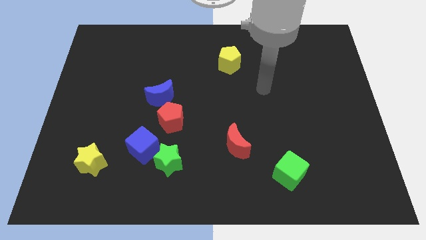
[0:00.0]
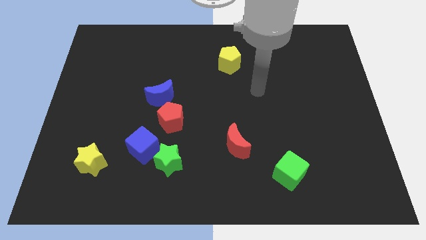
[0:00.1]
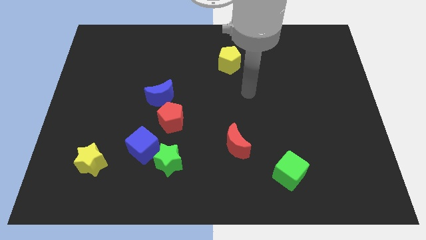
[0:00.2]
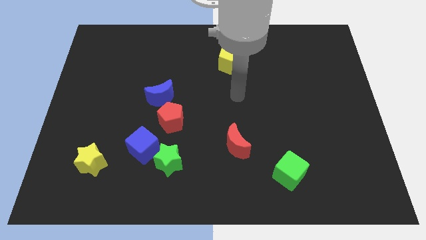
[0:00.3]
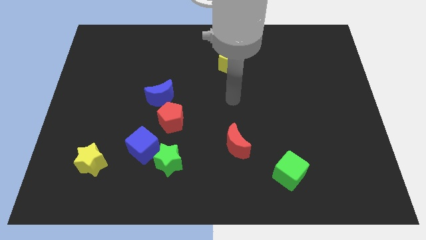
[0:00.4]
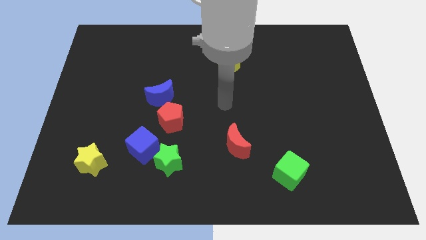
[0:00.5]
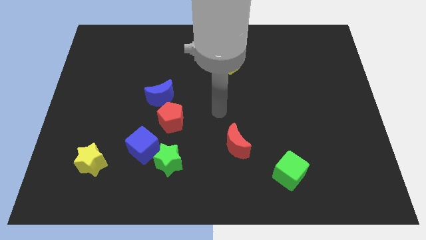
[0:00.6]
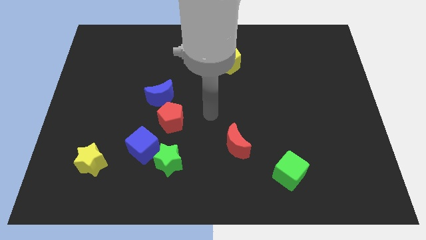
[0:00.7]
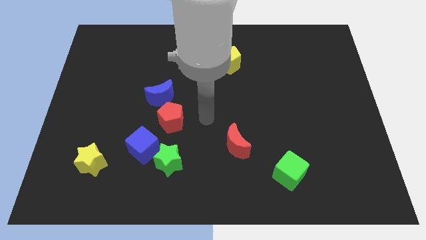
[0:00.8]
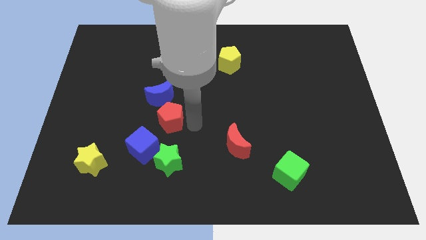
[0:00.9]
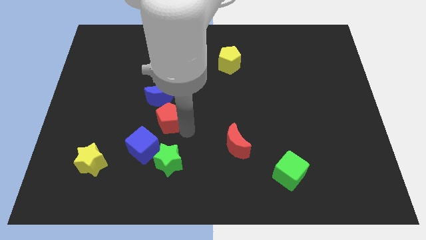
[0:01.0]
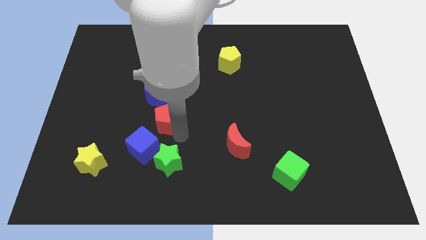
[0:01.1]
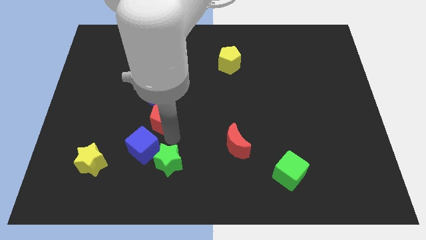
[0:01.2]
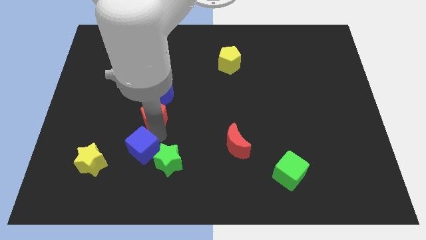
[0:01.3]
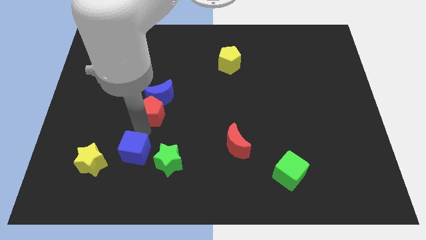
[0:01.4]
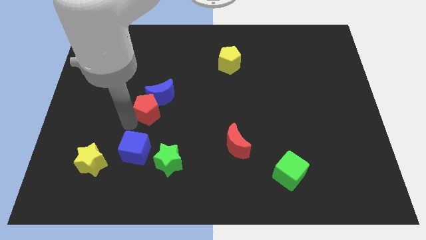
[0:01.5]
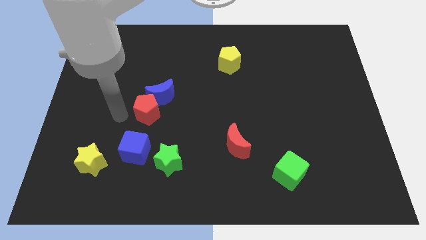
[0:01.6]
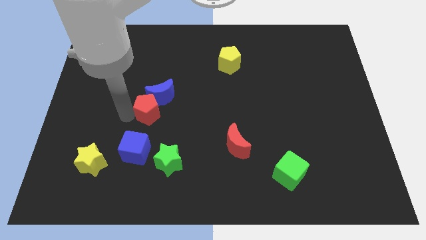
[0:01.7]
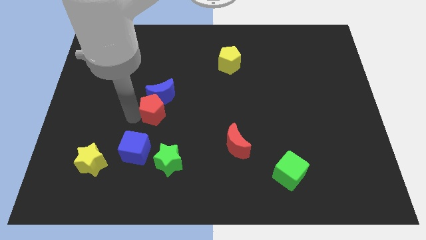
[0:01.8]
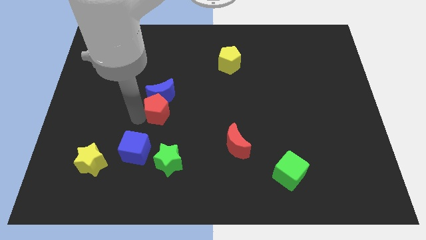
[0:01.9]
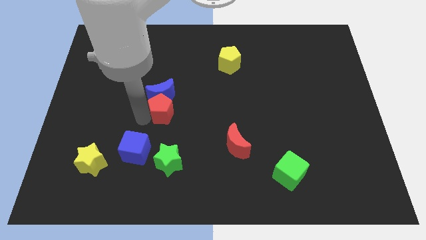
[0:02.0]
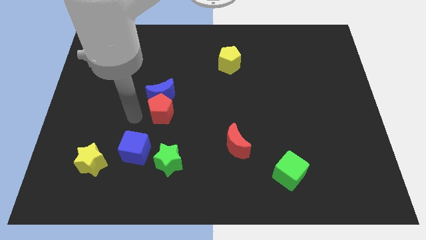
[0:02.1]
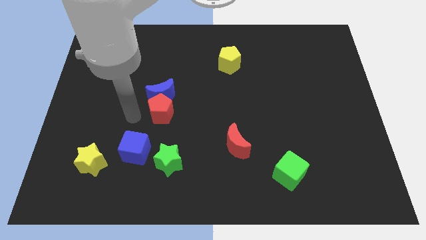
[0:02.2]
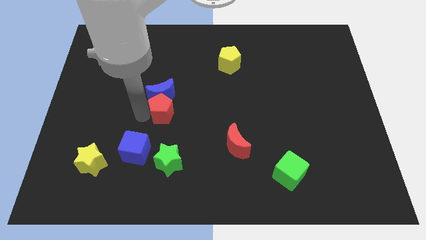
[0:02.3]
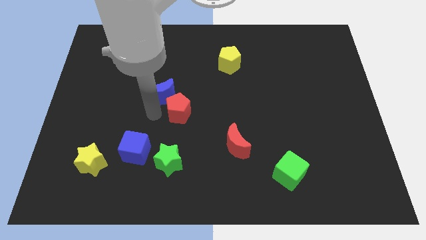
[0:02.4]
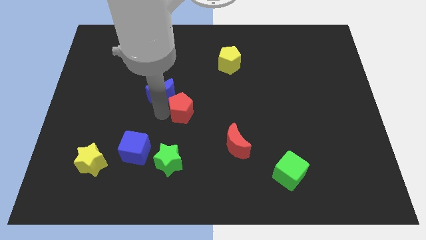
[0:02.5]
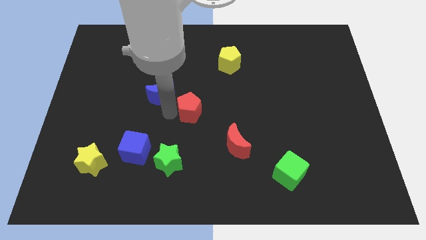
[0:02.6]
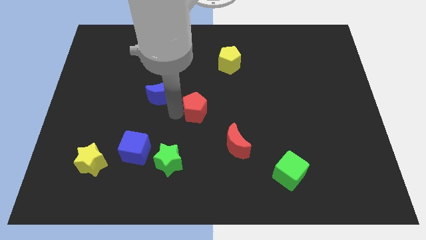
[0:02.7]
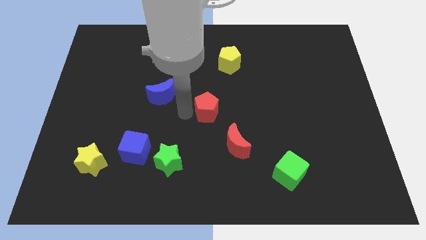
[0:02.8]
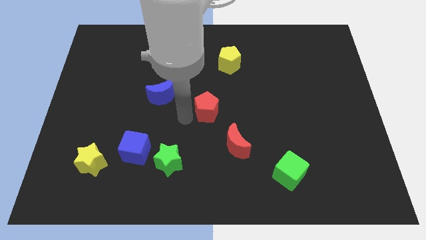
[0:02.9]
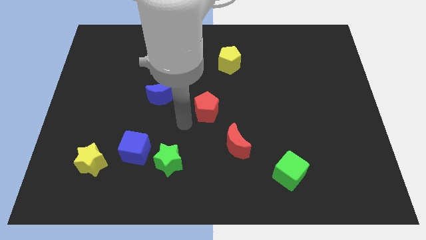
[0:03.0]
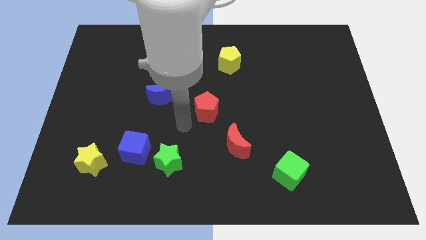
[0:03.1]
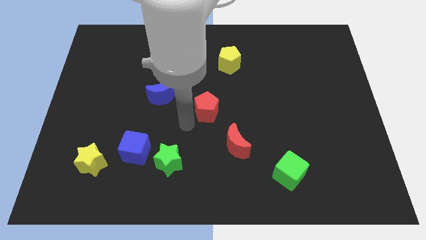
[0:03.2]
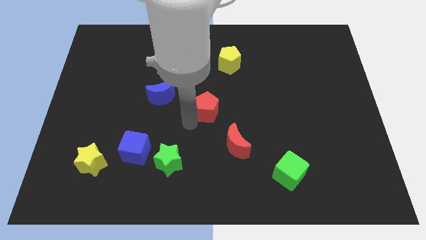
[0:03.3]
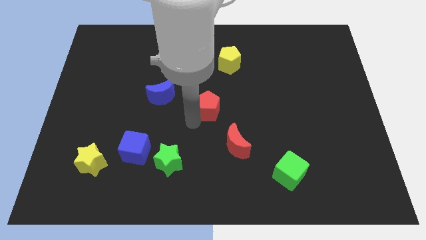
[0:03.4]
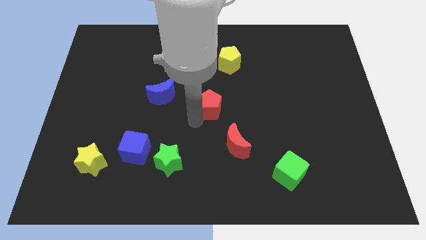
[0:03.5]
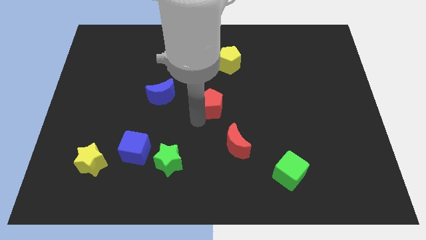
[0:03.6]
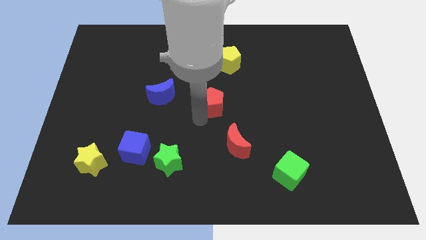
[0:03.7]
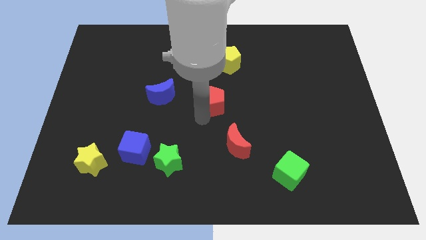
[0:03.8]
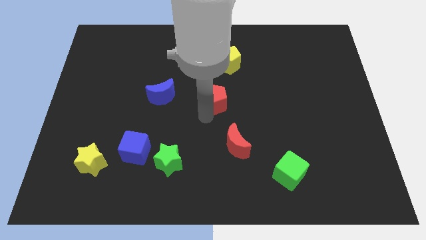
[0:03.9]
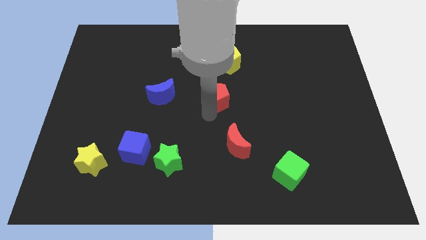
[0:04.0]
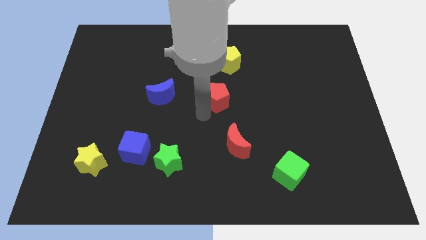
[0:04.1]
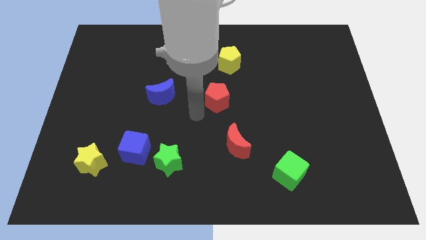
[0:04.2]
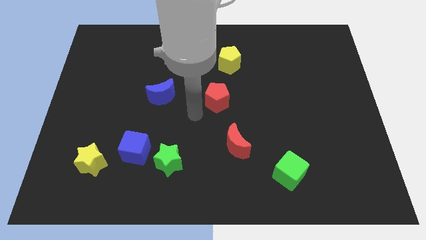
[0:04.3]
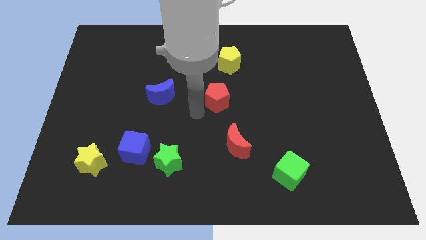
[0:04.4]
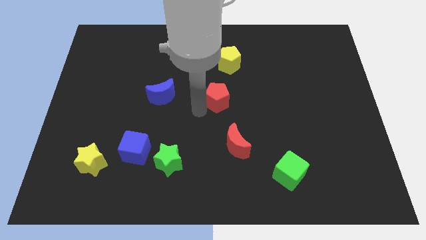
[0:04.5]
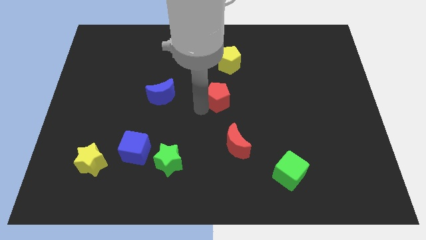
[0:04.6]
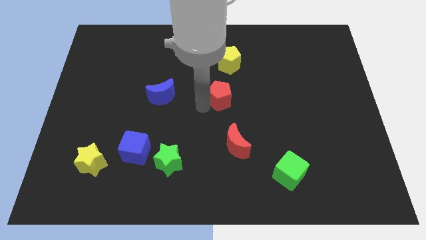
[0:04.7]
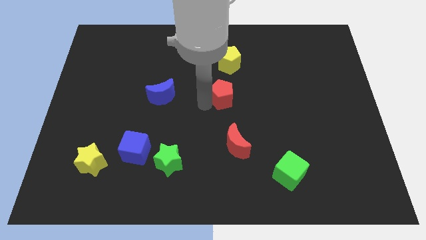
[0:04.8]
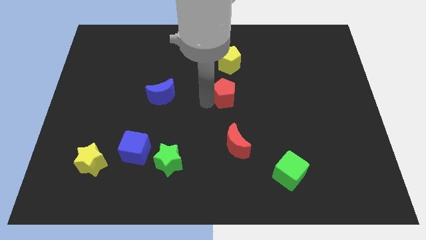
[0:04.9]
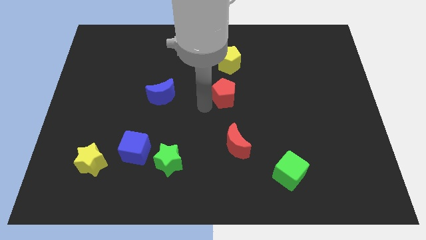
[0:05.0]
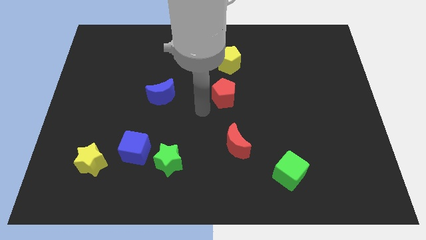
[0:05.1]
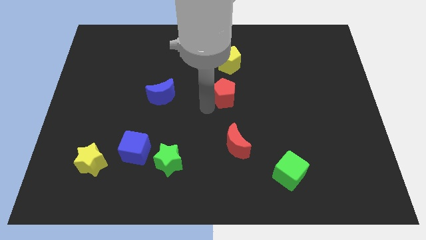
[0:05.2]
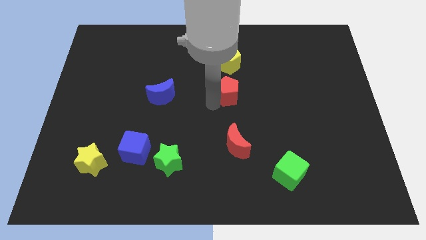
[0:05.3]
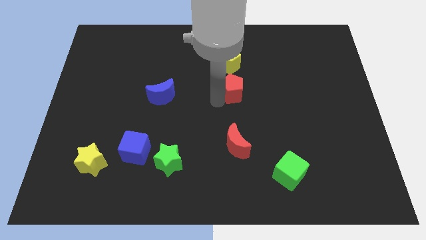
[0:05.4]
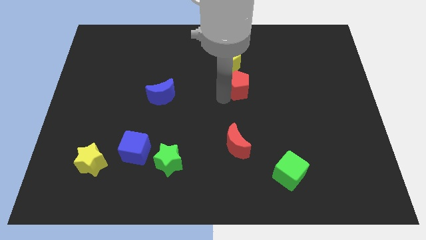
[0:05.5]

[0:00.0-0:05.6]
slide the red pentagon diagonally down and to the right of the yellow pentagon
